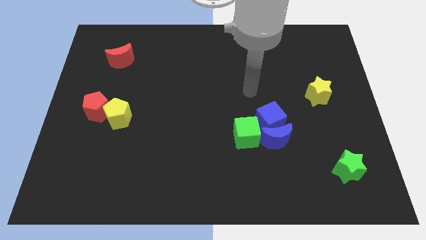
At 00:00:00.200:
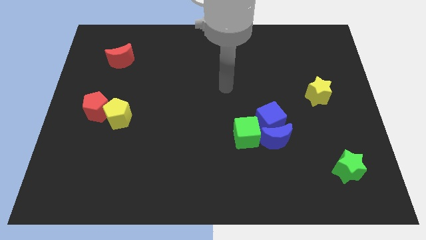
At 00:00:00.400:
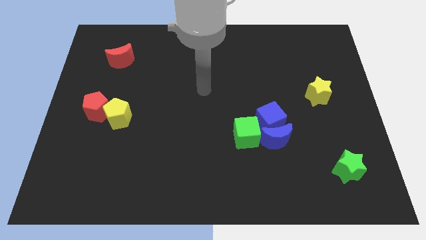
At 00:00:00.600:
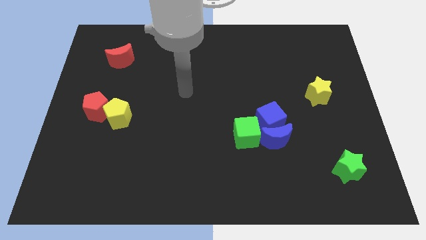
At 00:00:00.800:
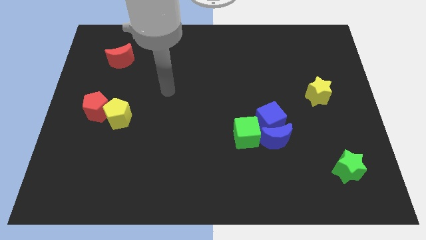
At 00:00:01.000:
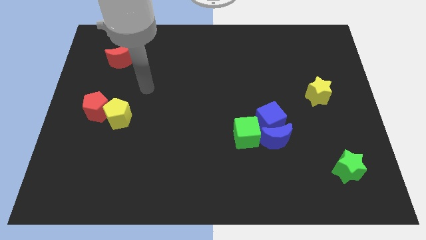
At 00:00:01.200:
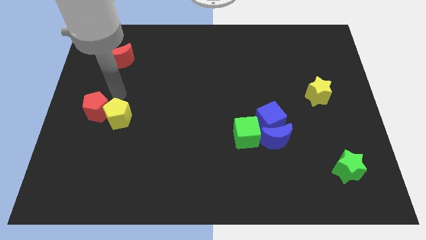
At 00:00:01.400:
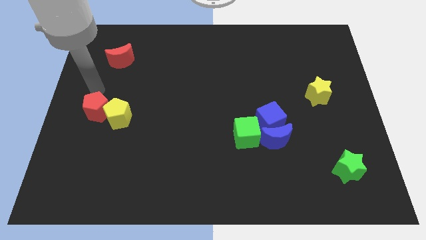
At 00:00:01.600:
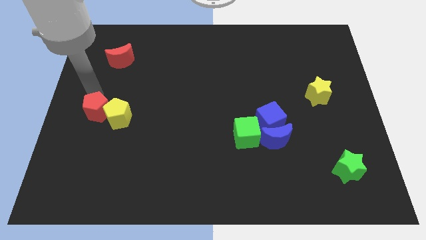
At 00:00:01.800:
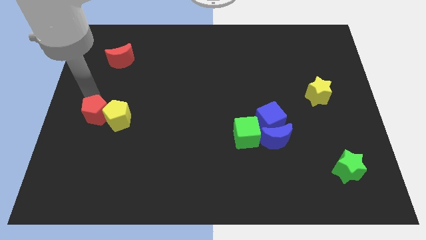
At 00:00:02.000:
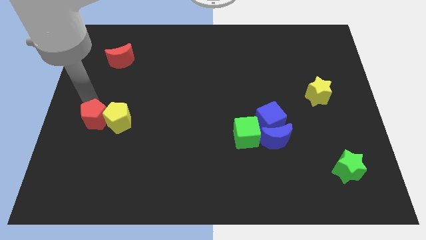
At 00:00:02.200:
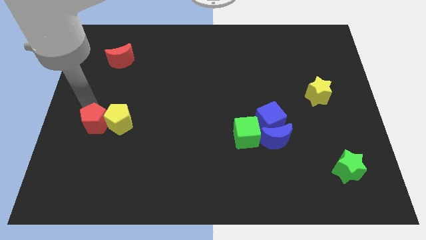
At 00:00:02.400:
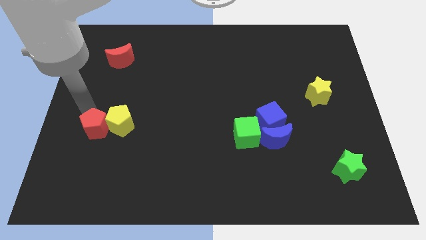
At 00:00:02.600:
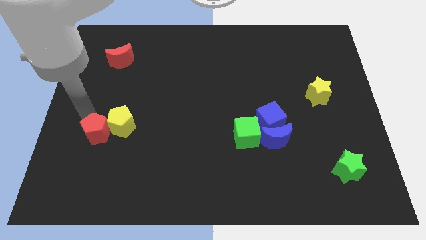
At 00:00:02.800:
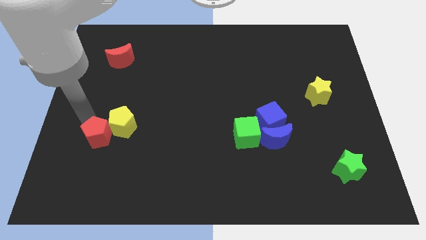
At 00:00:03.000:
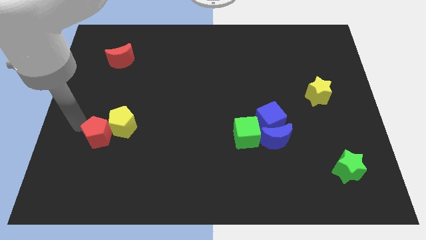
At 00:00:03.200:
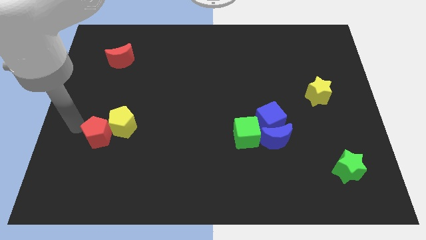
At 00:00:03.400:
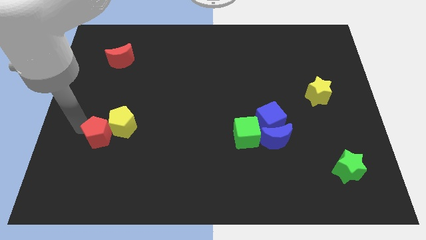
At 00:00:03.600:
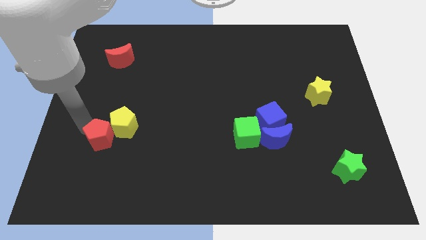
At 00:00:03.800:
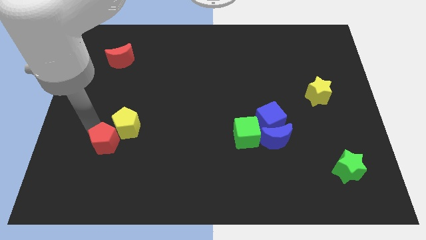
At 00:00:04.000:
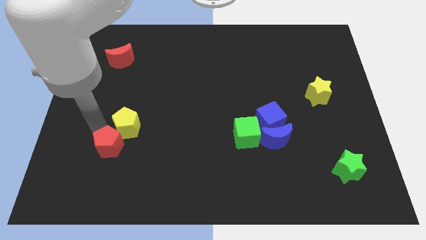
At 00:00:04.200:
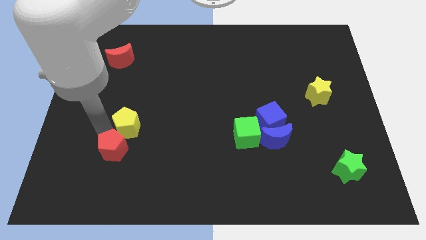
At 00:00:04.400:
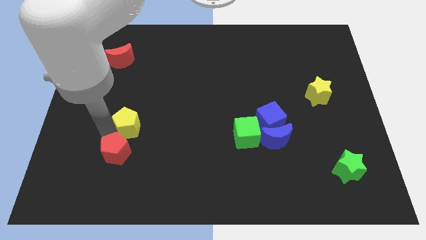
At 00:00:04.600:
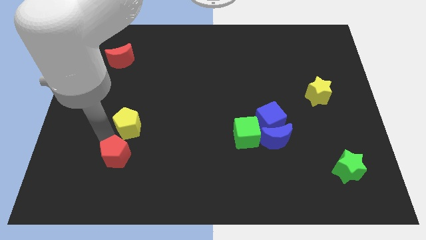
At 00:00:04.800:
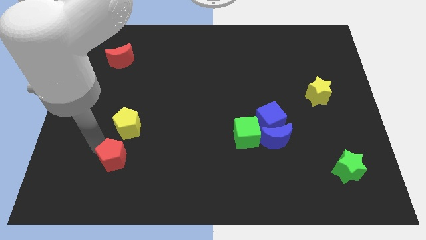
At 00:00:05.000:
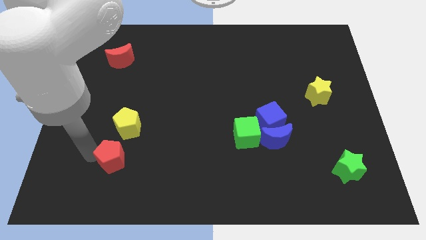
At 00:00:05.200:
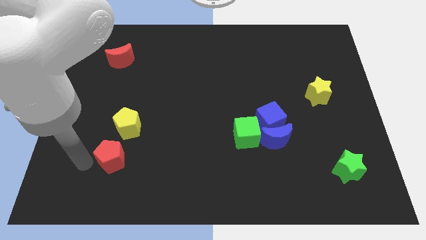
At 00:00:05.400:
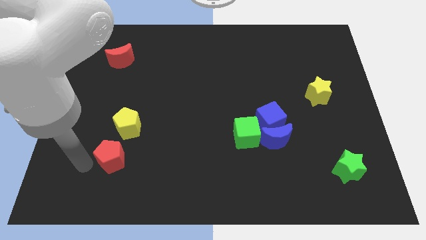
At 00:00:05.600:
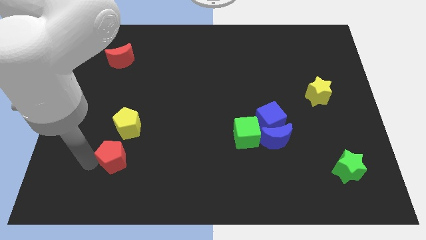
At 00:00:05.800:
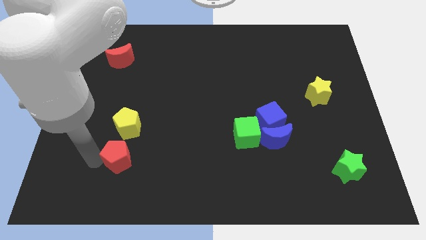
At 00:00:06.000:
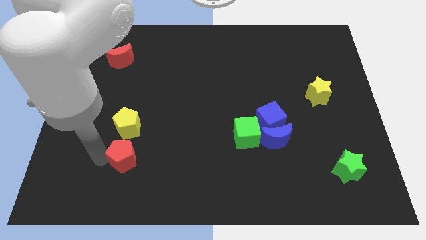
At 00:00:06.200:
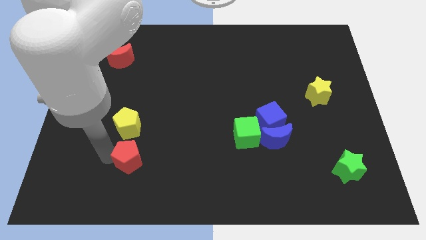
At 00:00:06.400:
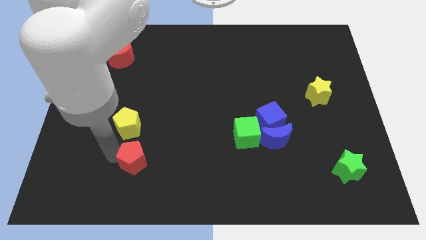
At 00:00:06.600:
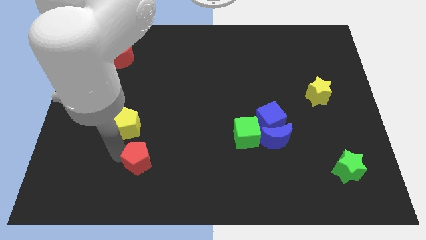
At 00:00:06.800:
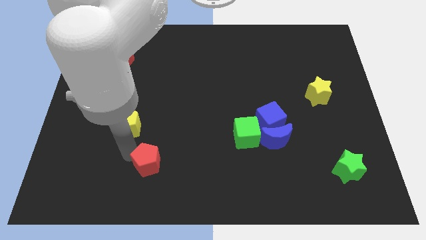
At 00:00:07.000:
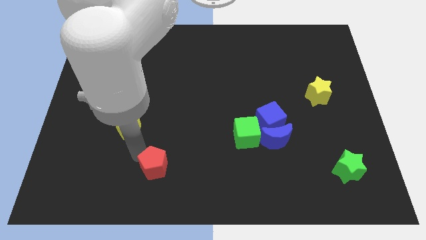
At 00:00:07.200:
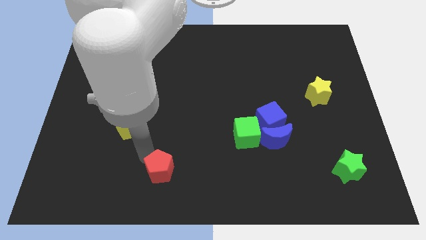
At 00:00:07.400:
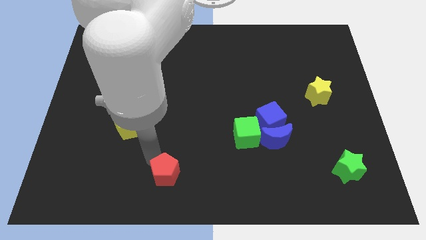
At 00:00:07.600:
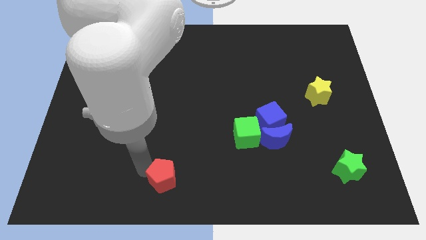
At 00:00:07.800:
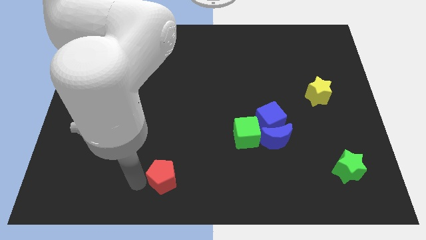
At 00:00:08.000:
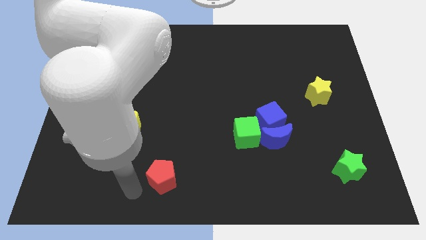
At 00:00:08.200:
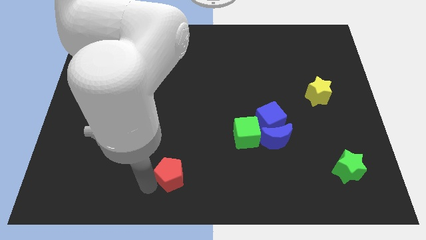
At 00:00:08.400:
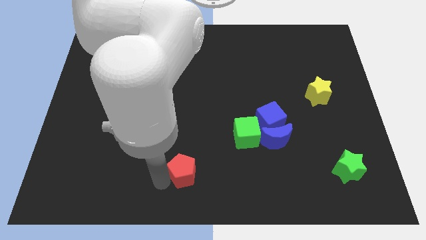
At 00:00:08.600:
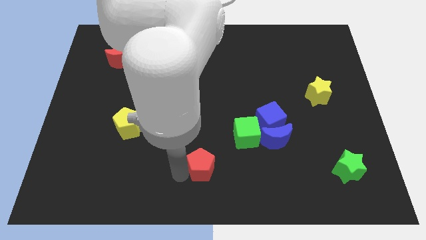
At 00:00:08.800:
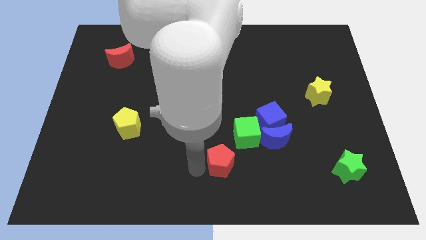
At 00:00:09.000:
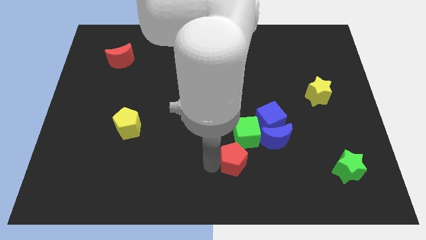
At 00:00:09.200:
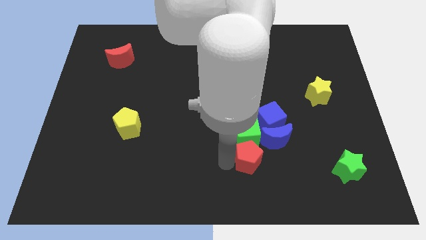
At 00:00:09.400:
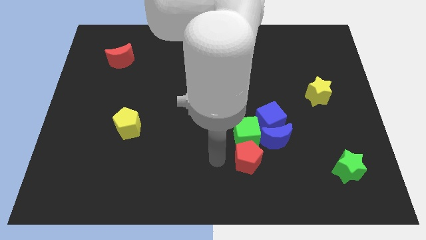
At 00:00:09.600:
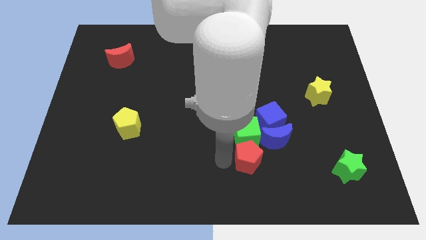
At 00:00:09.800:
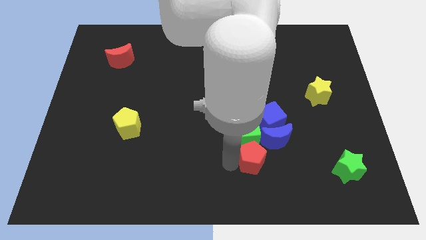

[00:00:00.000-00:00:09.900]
move the red pentagon below the blue cube
